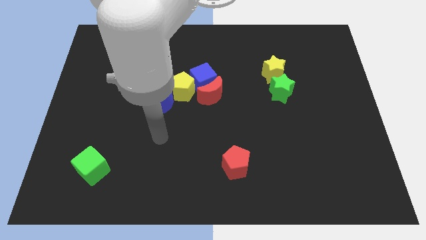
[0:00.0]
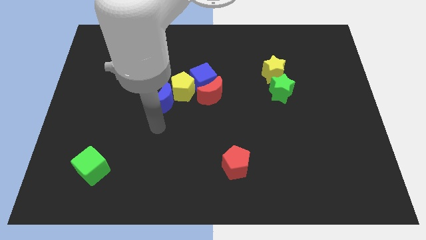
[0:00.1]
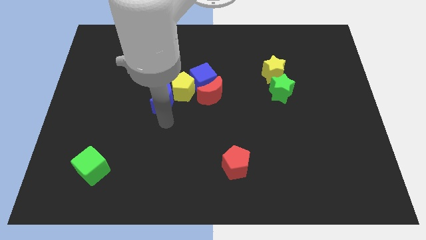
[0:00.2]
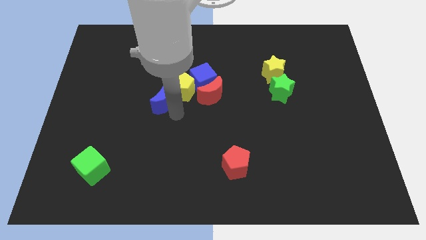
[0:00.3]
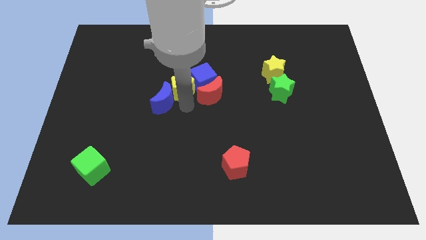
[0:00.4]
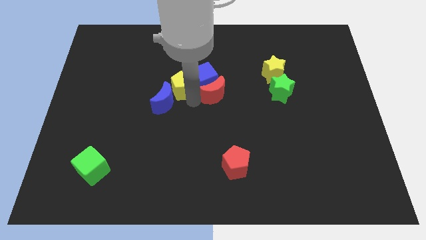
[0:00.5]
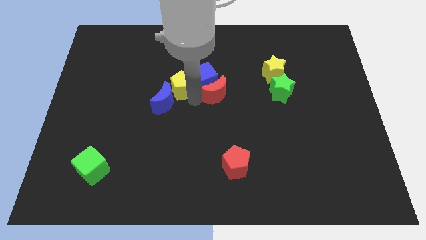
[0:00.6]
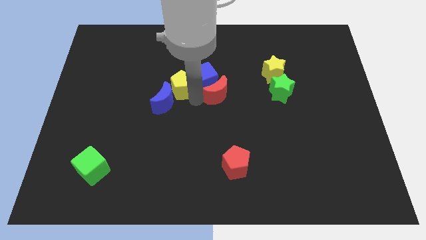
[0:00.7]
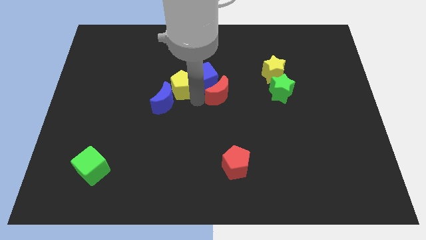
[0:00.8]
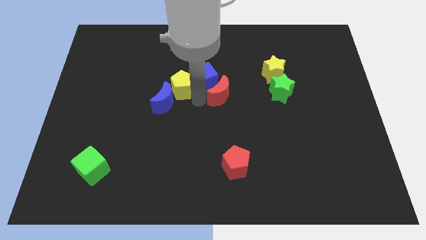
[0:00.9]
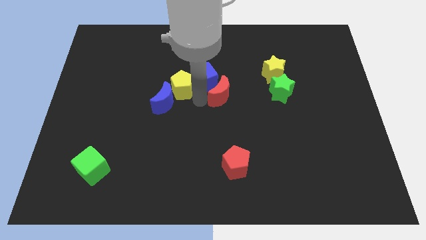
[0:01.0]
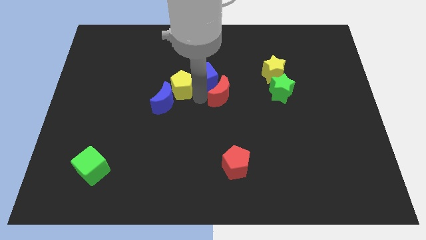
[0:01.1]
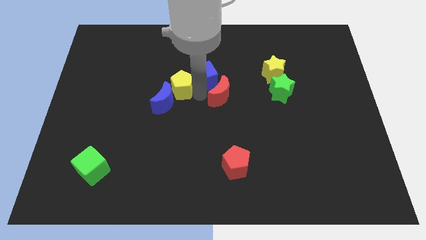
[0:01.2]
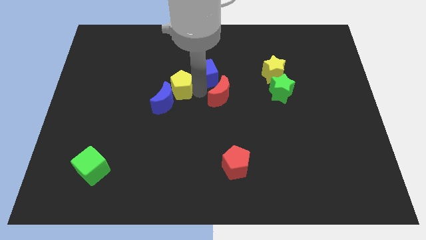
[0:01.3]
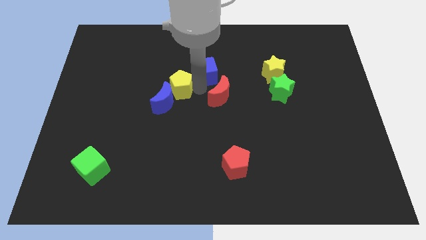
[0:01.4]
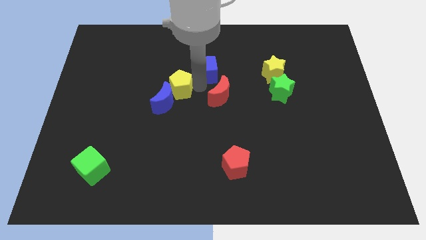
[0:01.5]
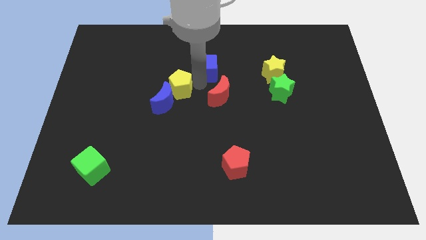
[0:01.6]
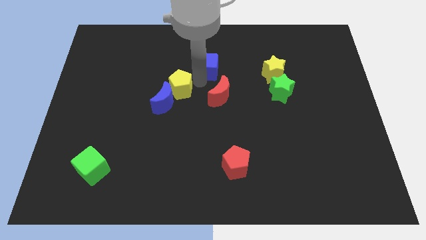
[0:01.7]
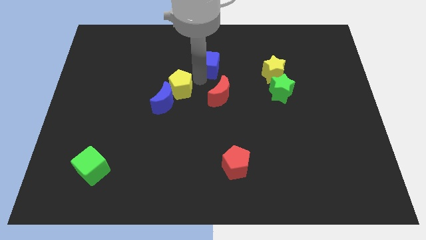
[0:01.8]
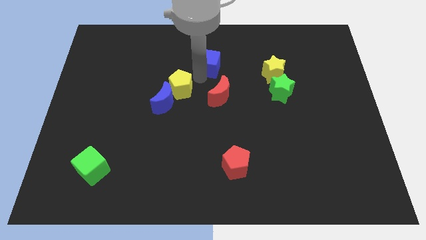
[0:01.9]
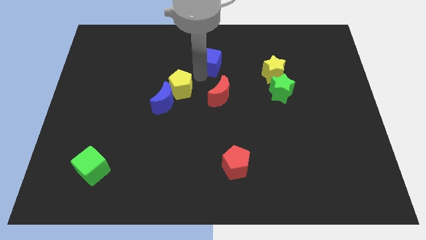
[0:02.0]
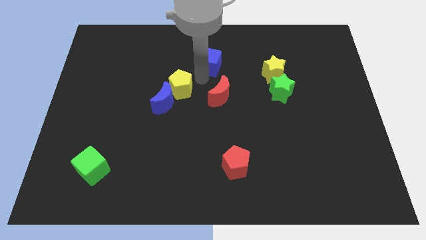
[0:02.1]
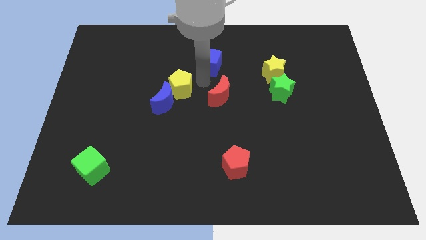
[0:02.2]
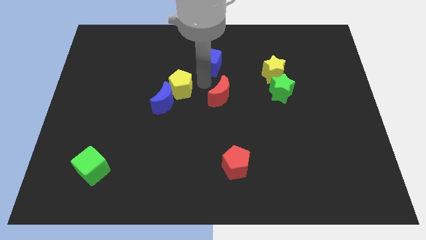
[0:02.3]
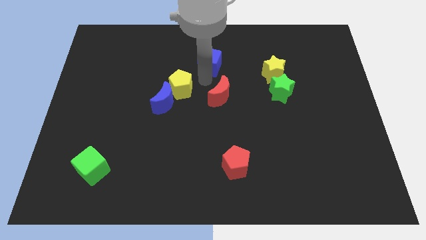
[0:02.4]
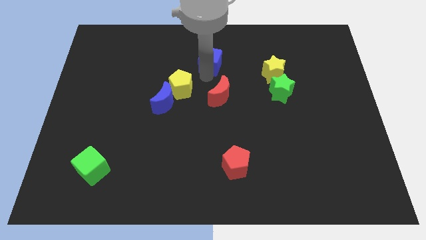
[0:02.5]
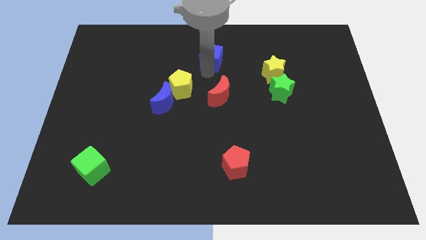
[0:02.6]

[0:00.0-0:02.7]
move the blue cube away from the red moon and yellow pentagon

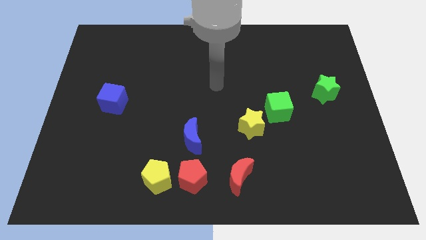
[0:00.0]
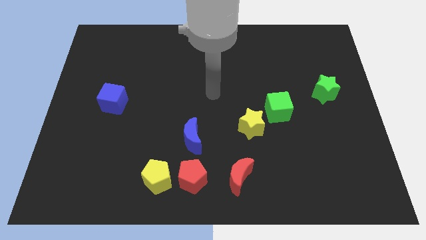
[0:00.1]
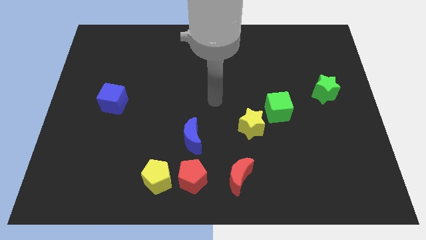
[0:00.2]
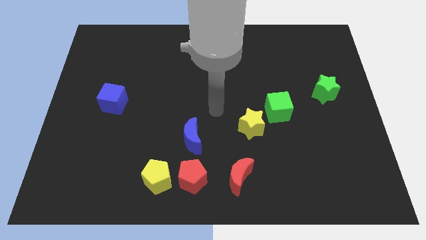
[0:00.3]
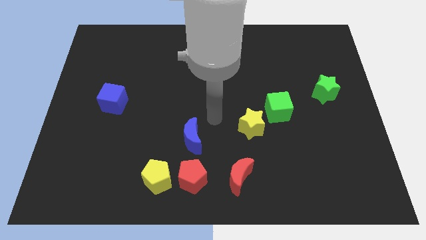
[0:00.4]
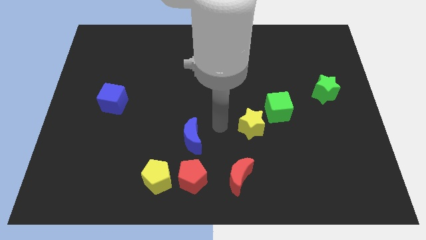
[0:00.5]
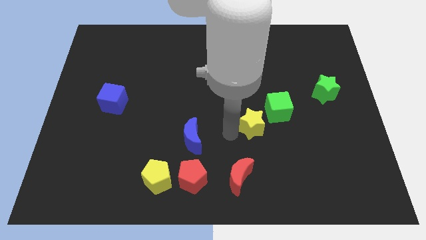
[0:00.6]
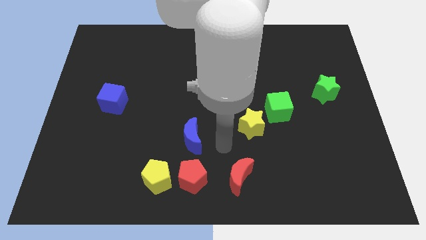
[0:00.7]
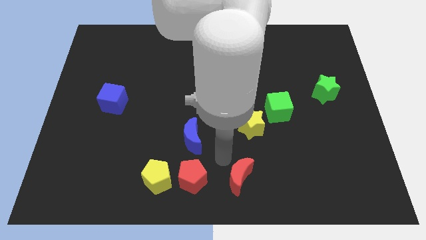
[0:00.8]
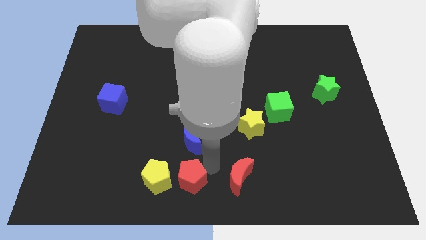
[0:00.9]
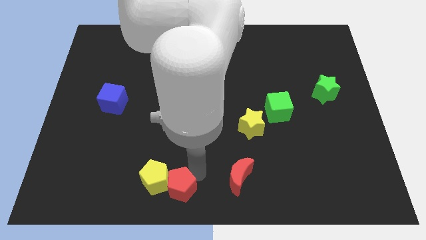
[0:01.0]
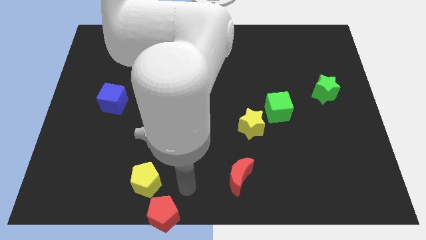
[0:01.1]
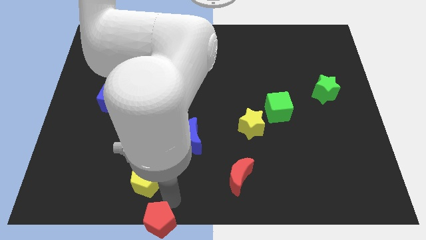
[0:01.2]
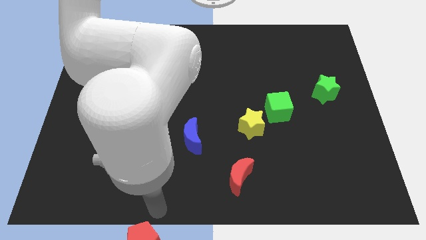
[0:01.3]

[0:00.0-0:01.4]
separate the yellow pentagon from the red pentagon

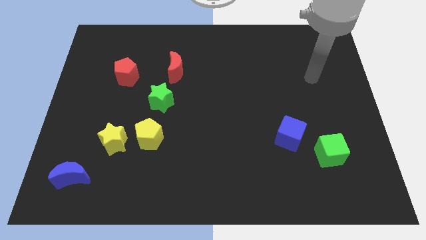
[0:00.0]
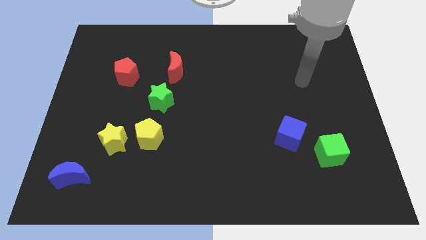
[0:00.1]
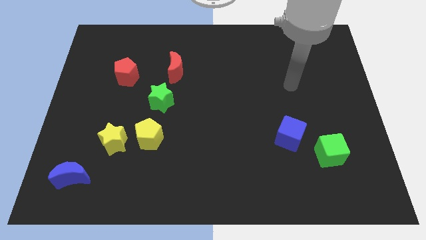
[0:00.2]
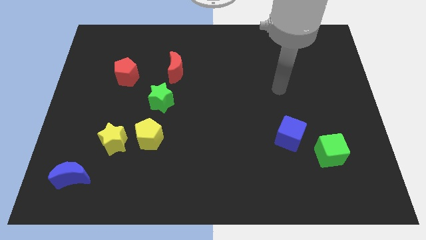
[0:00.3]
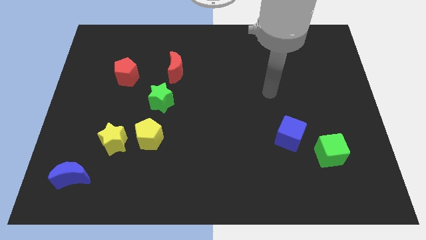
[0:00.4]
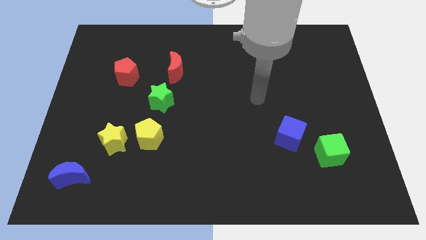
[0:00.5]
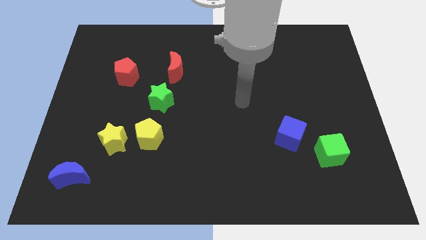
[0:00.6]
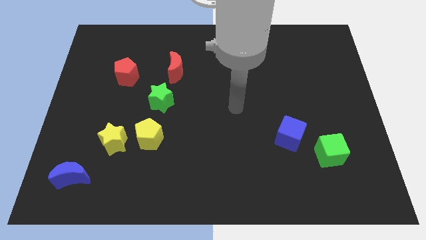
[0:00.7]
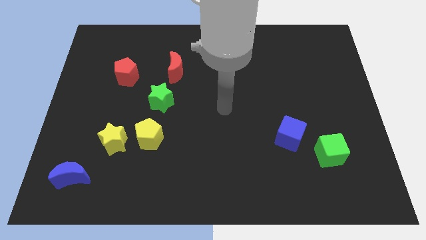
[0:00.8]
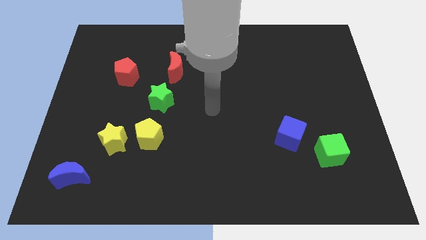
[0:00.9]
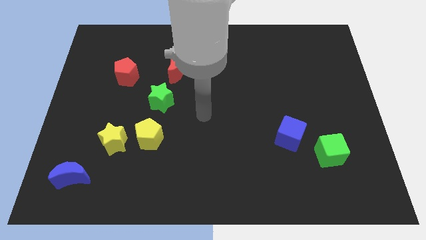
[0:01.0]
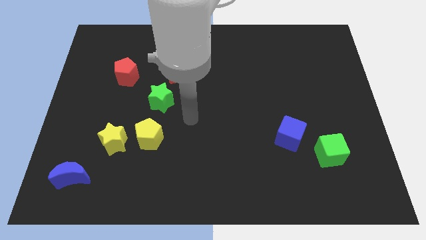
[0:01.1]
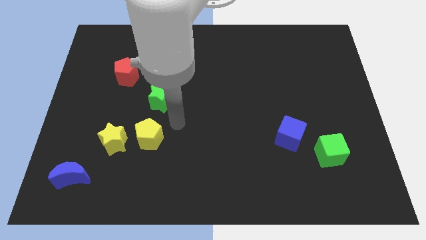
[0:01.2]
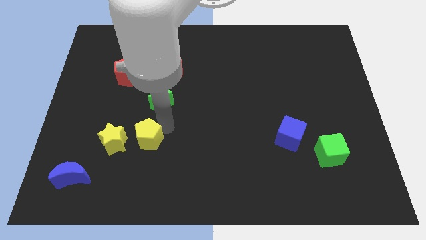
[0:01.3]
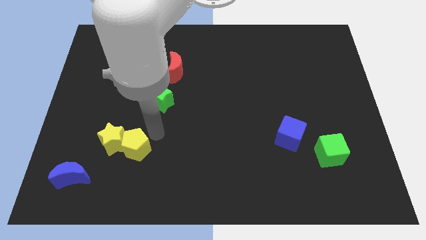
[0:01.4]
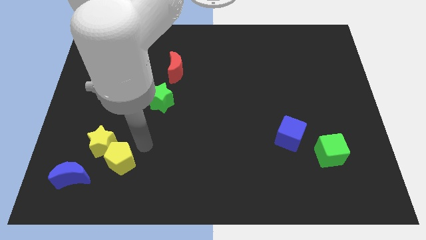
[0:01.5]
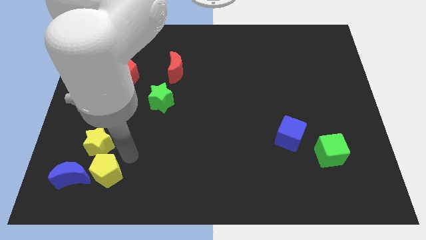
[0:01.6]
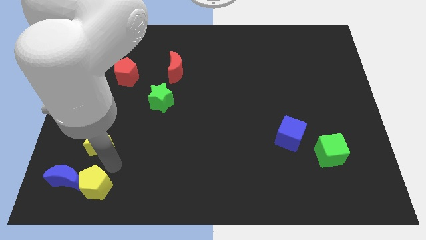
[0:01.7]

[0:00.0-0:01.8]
move the yellow star away from the yellow pentagon

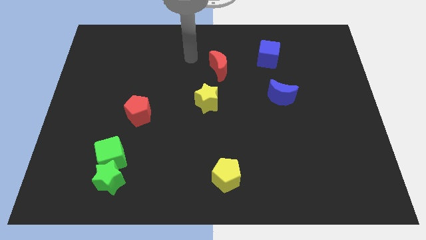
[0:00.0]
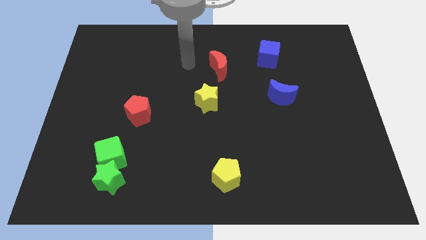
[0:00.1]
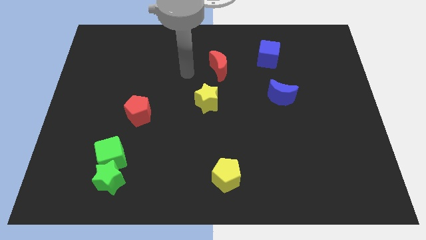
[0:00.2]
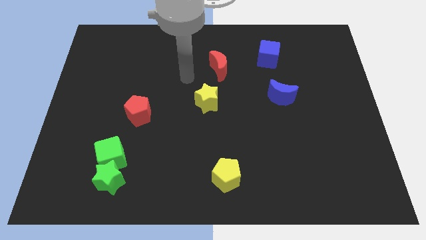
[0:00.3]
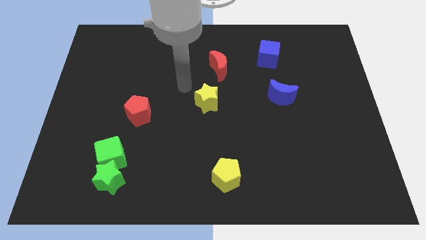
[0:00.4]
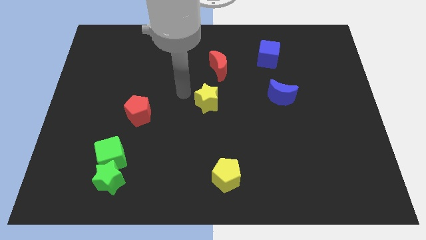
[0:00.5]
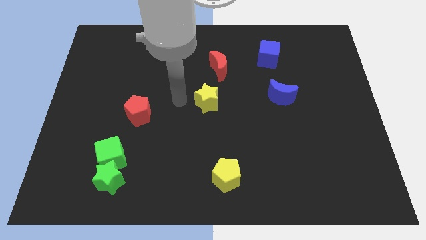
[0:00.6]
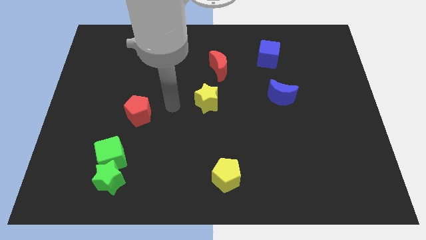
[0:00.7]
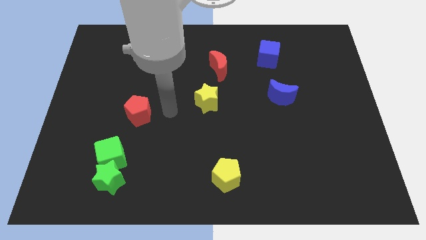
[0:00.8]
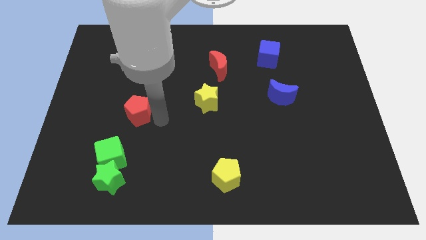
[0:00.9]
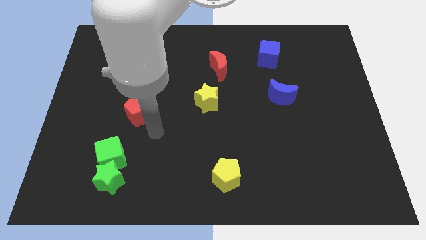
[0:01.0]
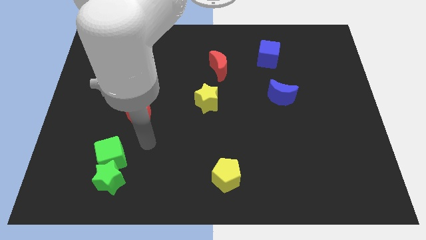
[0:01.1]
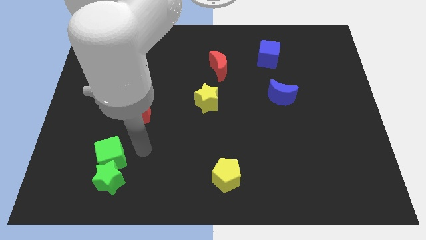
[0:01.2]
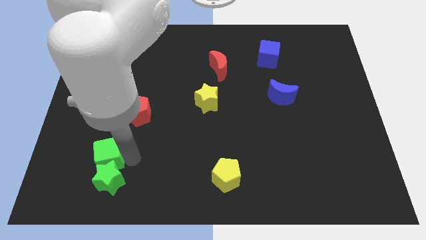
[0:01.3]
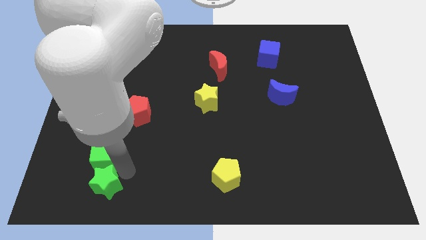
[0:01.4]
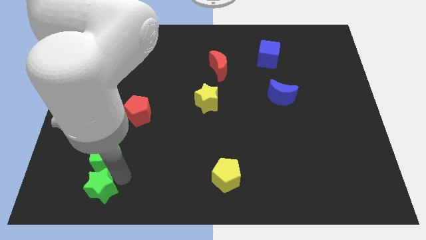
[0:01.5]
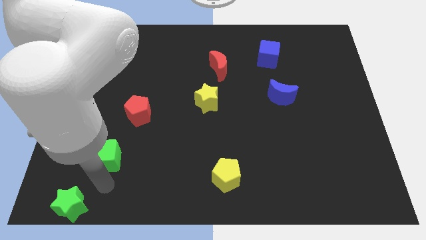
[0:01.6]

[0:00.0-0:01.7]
separate the green cube from the green star

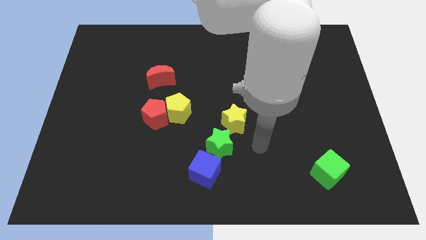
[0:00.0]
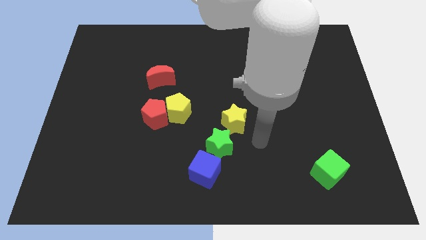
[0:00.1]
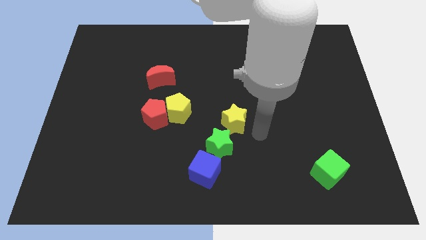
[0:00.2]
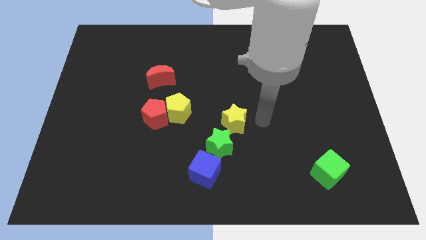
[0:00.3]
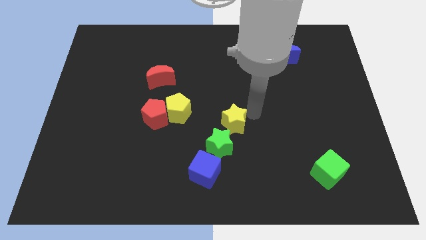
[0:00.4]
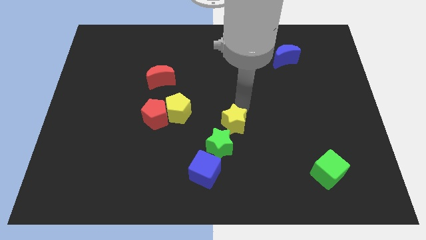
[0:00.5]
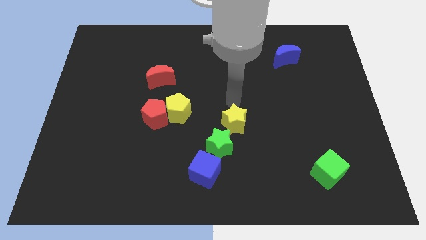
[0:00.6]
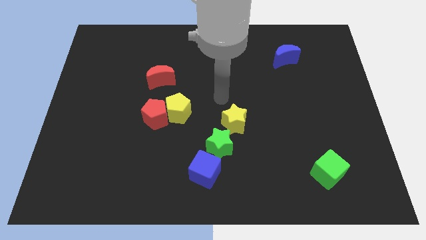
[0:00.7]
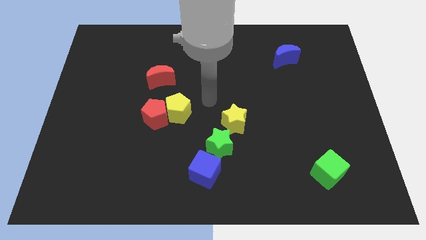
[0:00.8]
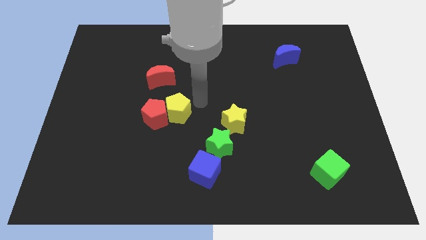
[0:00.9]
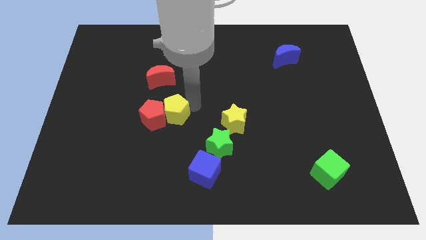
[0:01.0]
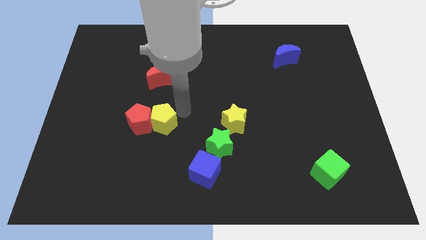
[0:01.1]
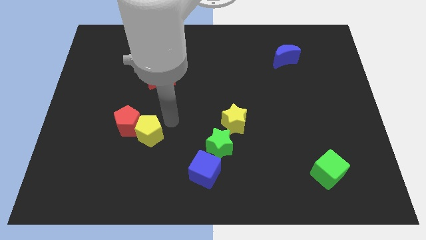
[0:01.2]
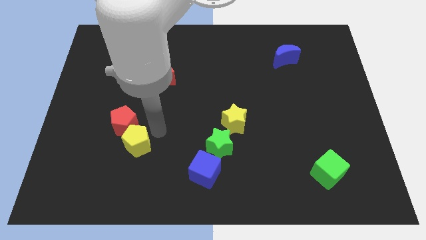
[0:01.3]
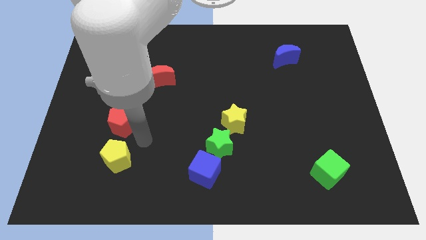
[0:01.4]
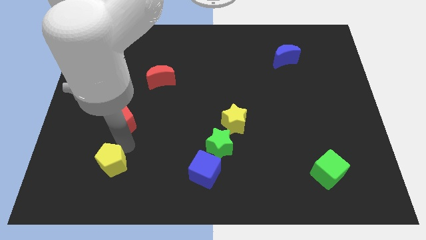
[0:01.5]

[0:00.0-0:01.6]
separate the red pentagon from the yellow pentagon
